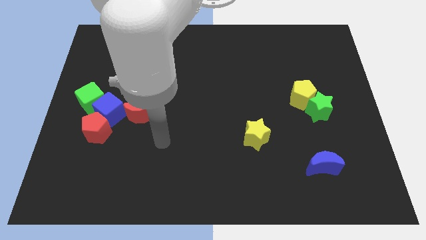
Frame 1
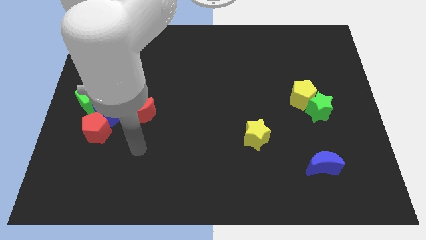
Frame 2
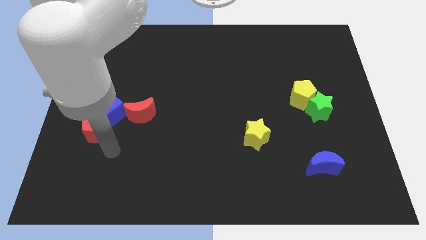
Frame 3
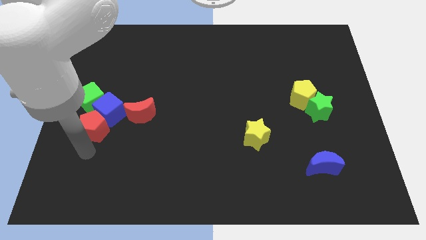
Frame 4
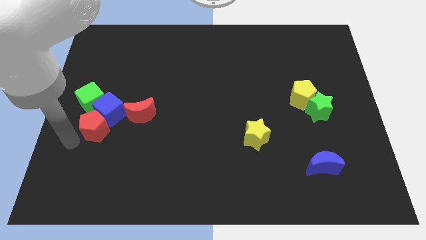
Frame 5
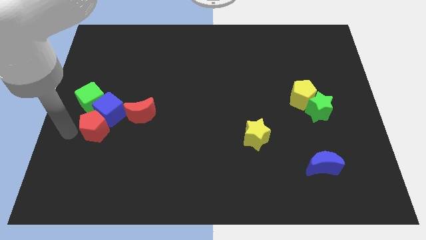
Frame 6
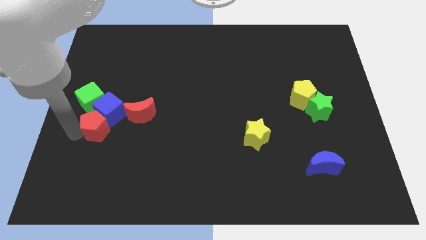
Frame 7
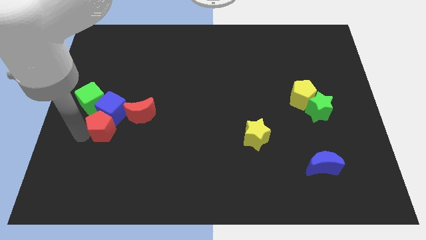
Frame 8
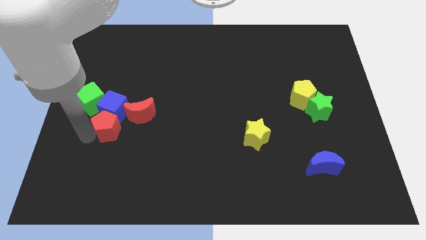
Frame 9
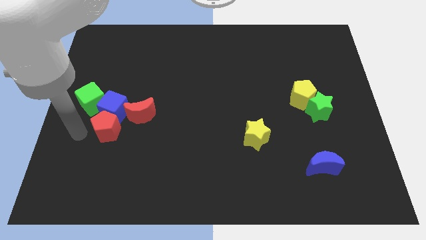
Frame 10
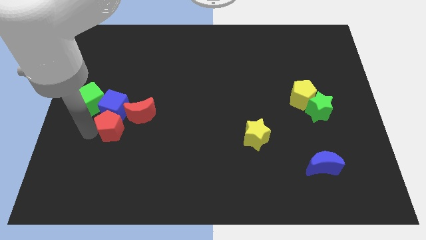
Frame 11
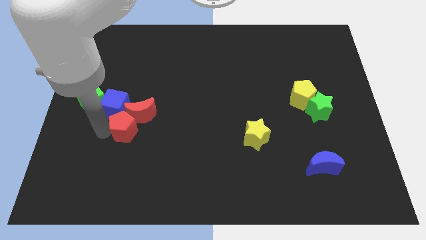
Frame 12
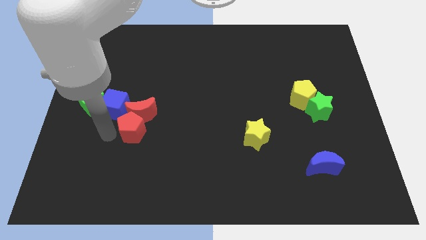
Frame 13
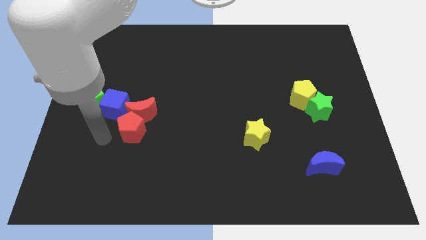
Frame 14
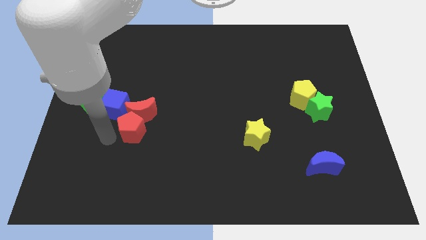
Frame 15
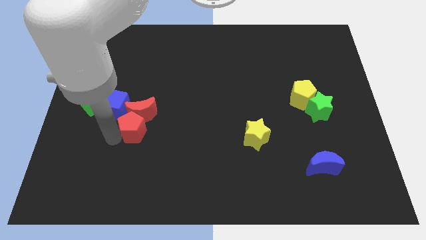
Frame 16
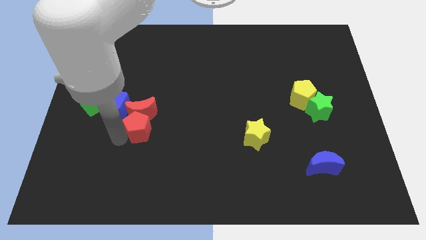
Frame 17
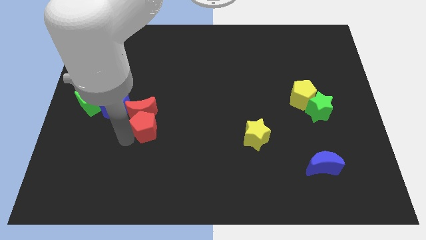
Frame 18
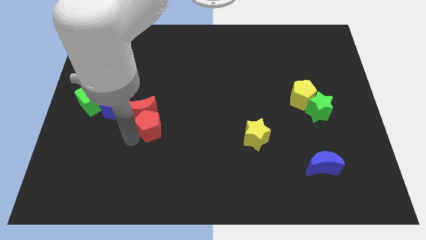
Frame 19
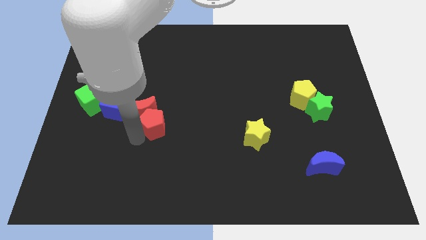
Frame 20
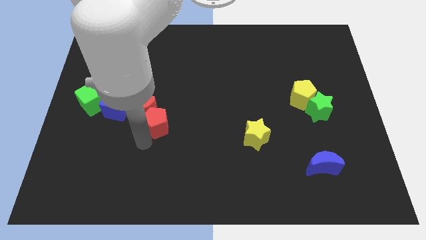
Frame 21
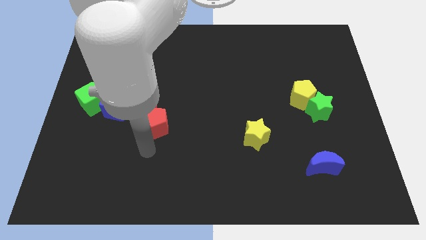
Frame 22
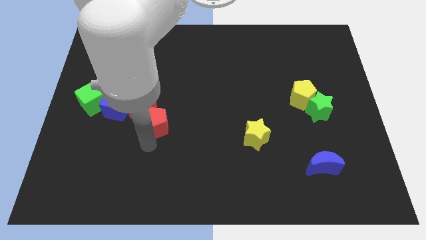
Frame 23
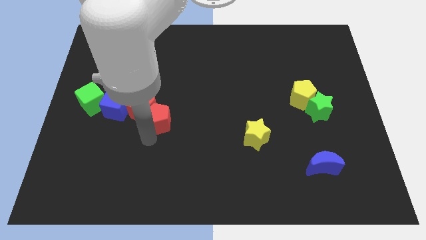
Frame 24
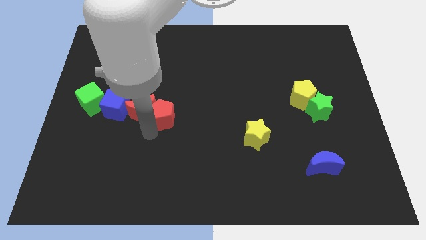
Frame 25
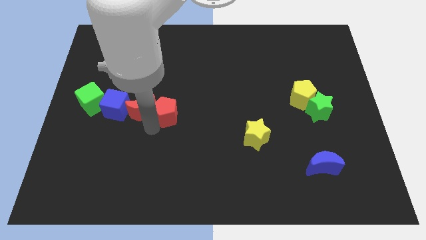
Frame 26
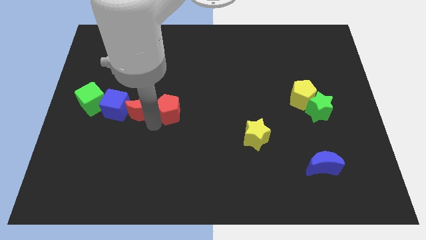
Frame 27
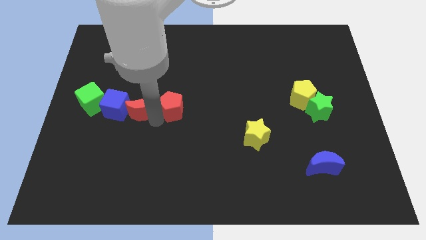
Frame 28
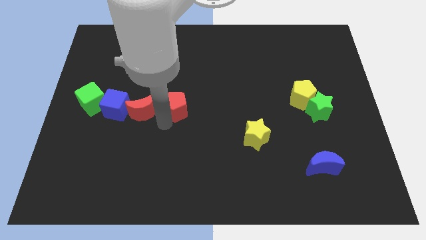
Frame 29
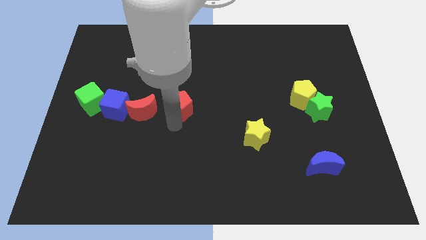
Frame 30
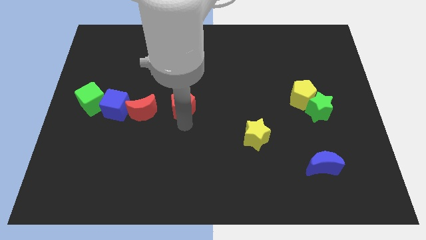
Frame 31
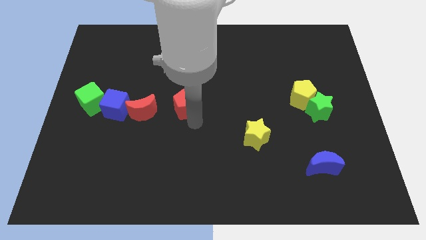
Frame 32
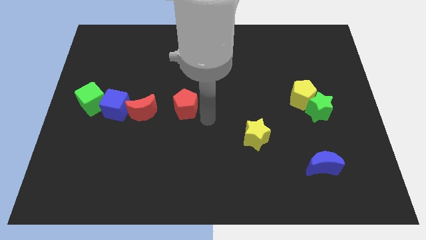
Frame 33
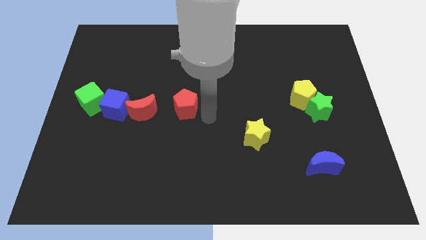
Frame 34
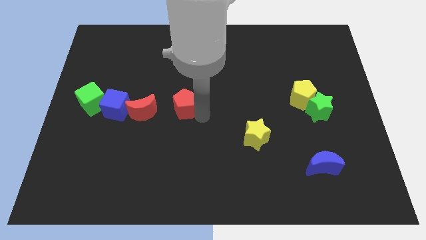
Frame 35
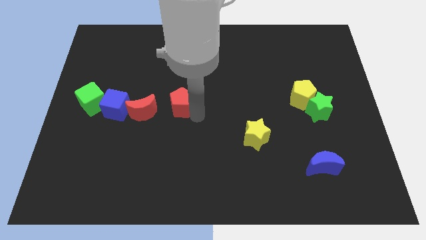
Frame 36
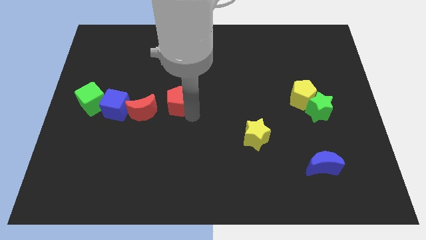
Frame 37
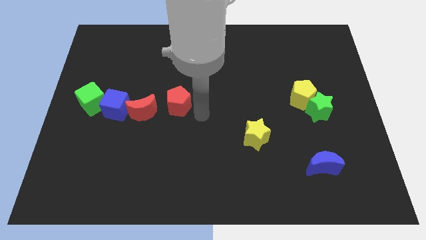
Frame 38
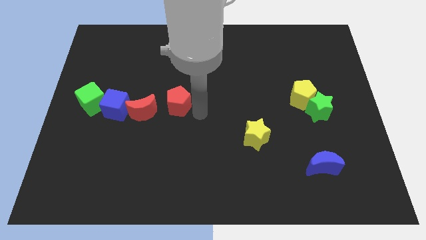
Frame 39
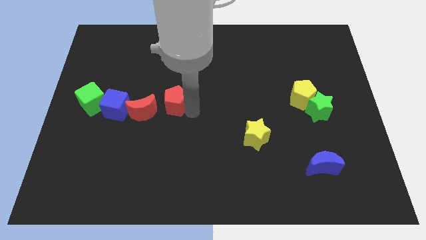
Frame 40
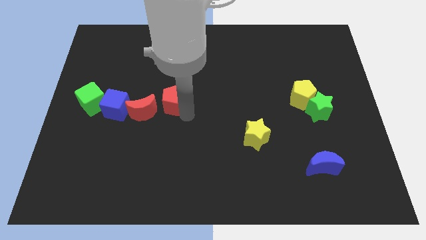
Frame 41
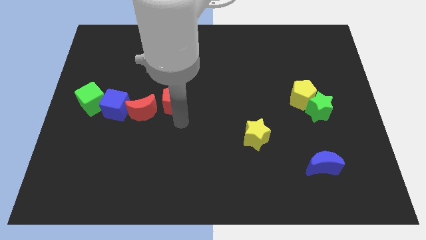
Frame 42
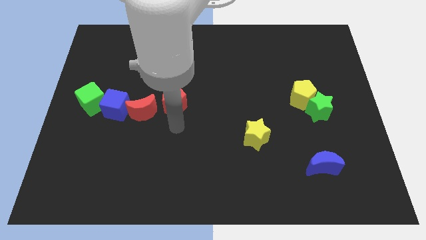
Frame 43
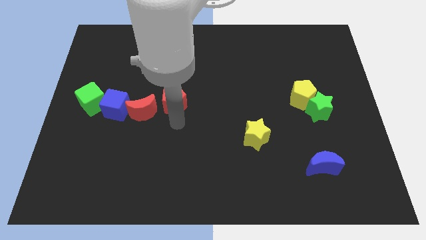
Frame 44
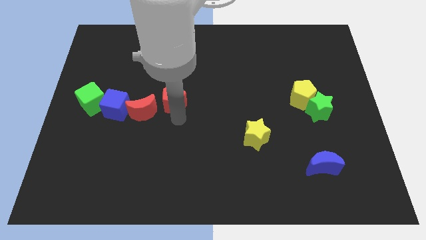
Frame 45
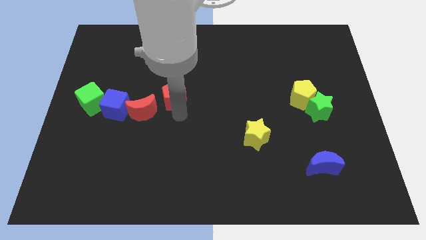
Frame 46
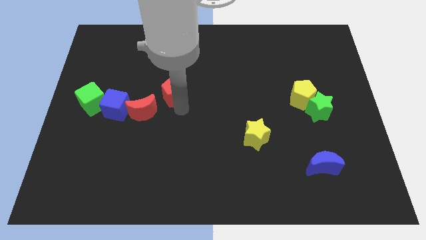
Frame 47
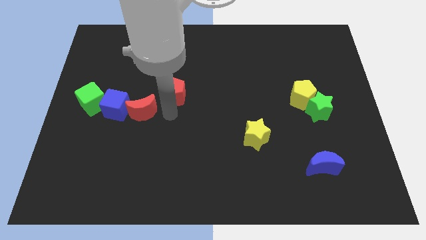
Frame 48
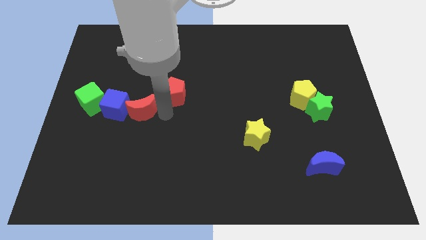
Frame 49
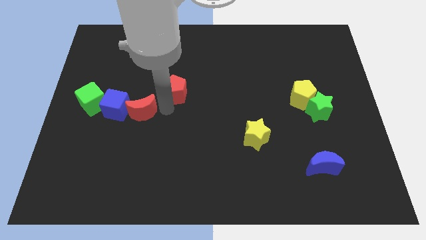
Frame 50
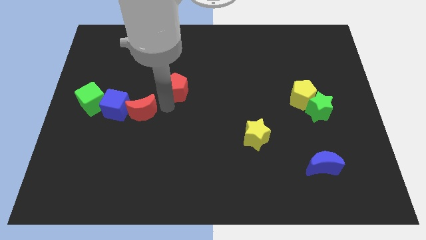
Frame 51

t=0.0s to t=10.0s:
push the red pentagon diagonally up and to the right

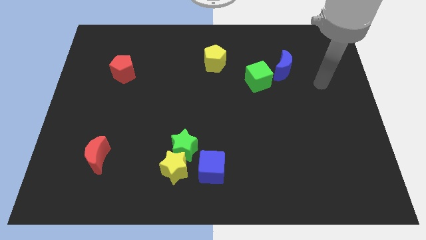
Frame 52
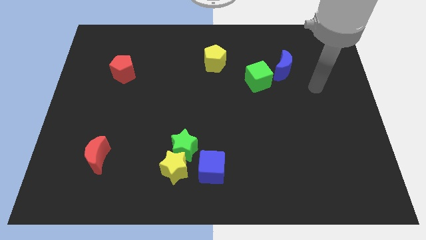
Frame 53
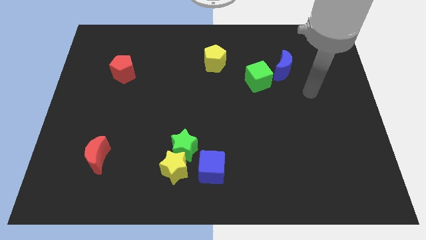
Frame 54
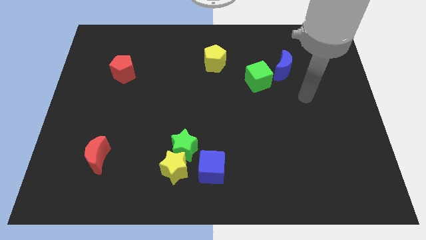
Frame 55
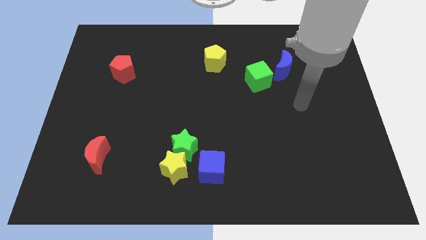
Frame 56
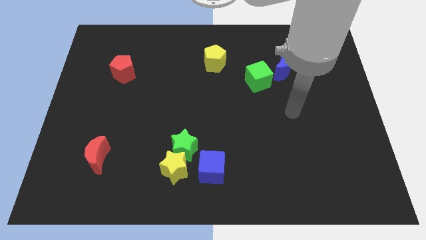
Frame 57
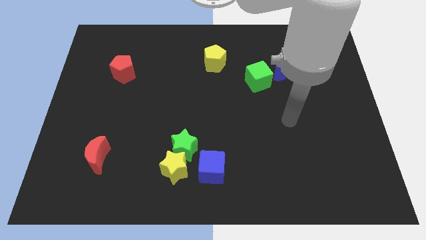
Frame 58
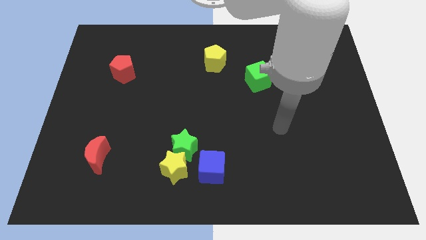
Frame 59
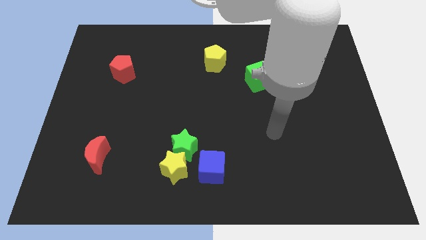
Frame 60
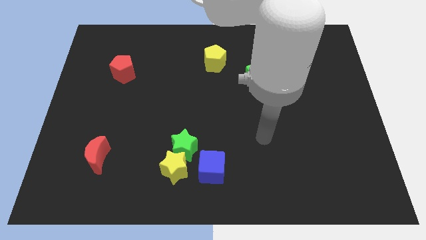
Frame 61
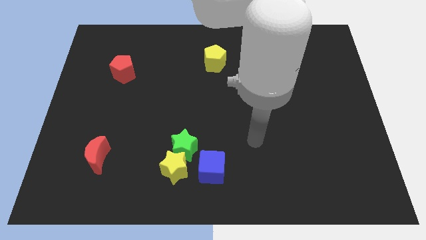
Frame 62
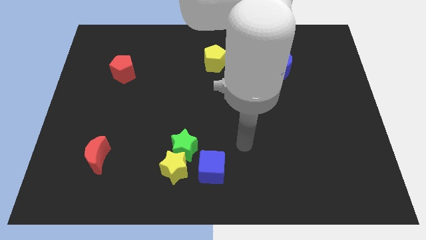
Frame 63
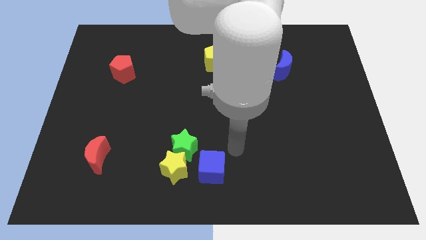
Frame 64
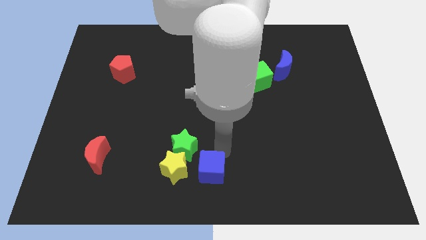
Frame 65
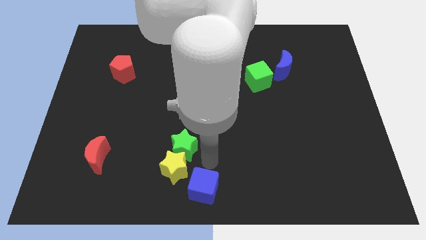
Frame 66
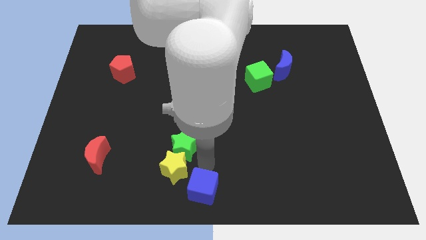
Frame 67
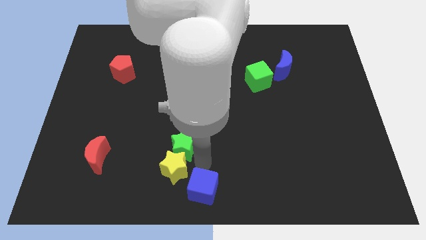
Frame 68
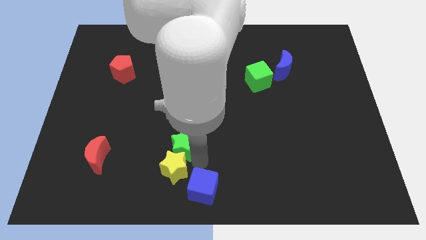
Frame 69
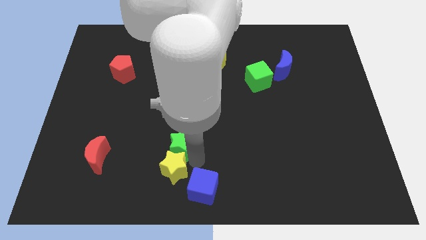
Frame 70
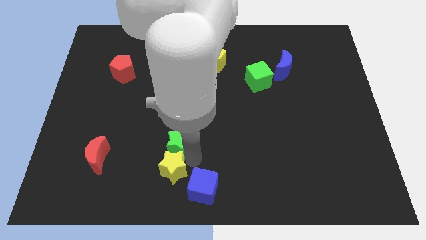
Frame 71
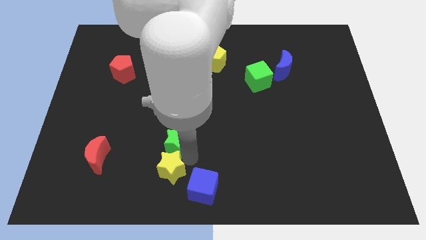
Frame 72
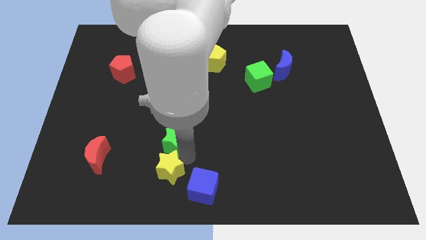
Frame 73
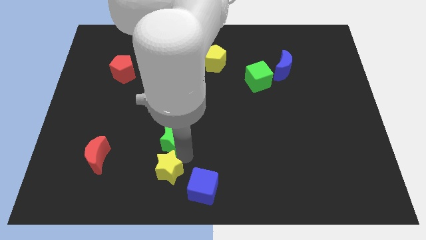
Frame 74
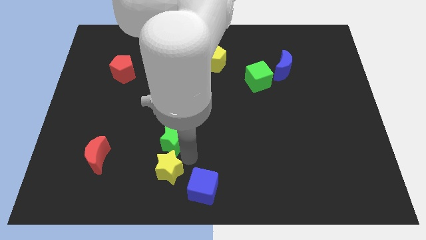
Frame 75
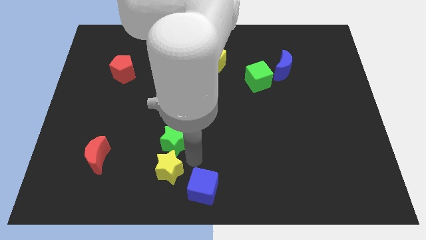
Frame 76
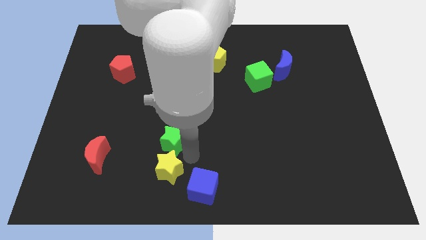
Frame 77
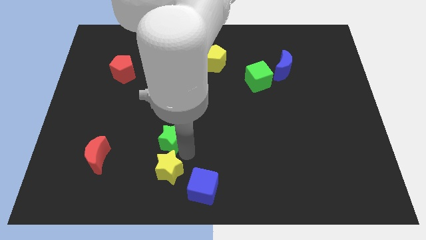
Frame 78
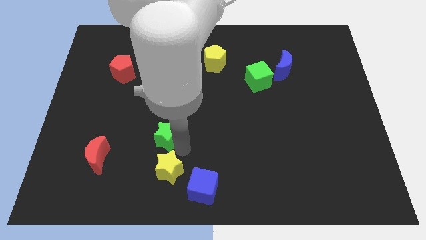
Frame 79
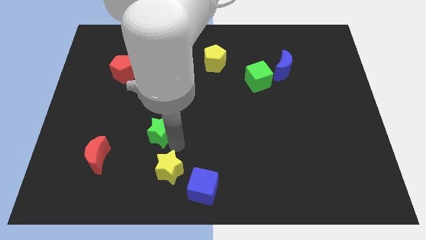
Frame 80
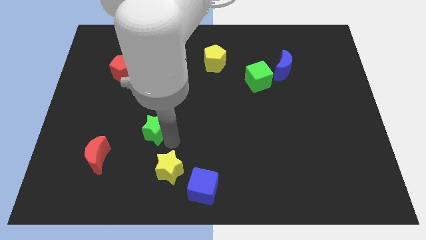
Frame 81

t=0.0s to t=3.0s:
push the green star a bit upwards and then to the left
